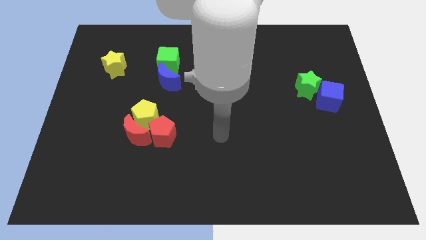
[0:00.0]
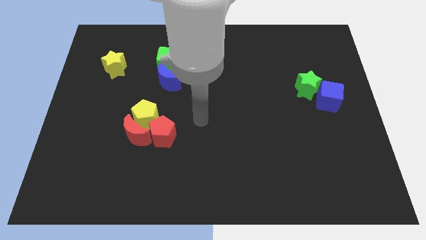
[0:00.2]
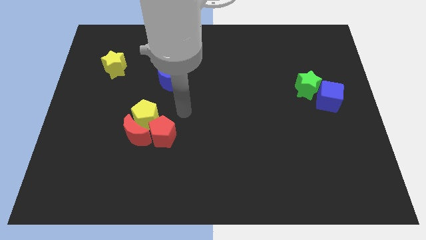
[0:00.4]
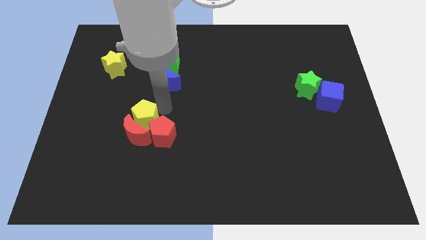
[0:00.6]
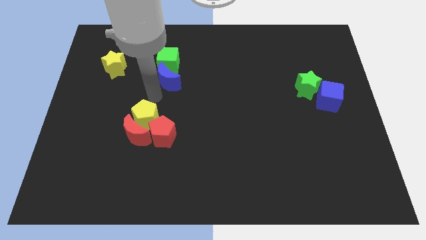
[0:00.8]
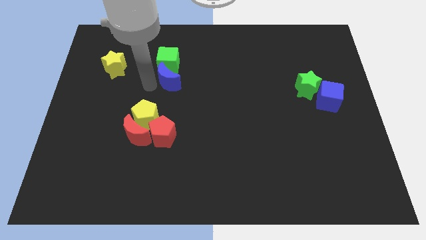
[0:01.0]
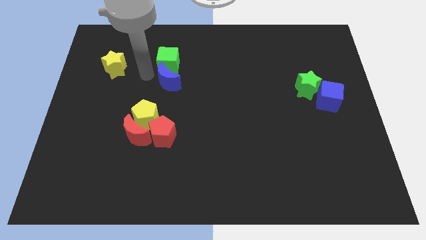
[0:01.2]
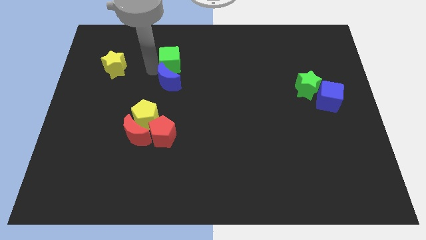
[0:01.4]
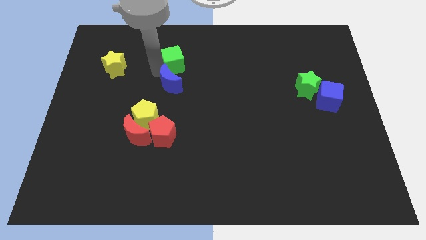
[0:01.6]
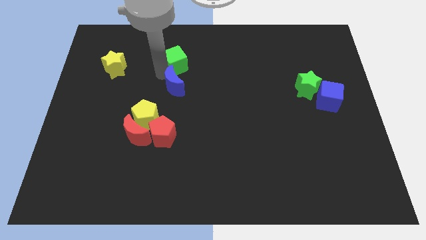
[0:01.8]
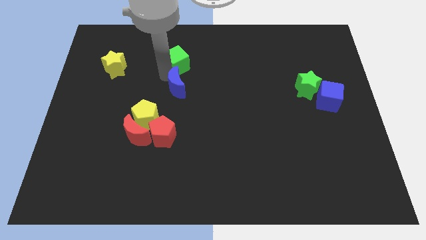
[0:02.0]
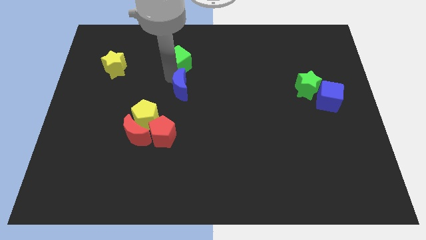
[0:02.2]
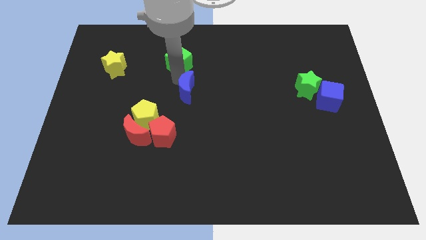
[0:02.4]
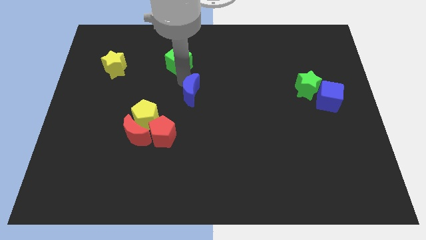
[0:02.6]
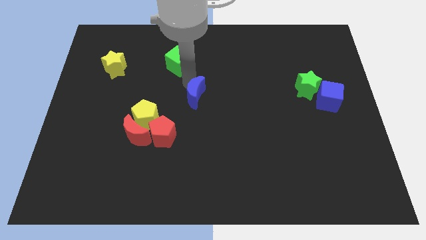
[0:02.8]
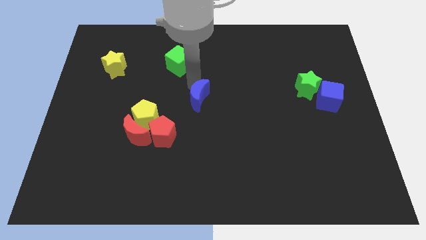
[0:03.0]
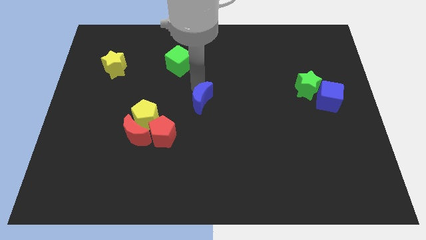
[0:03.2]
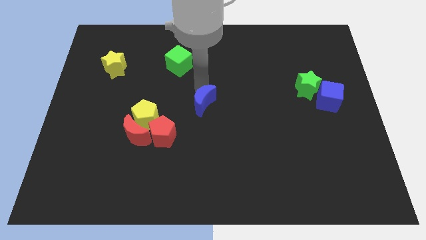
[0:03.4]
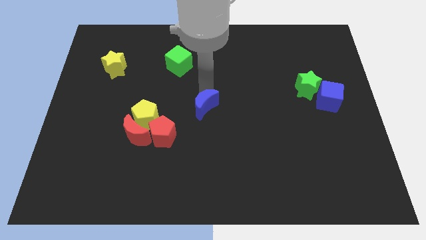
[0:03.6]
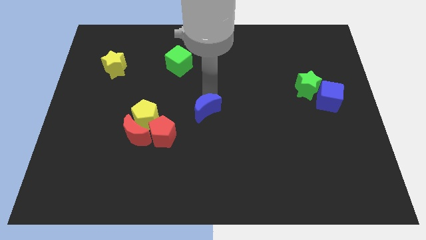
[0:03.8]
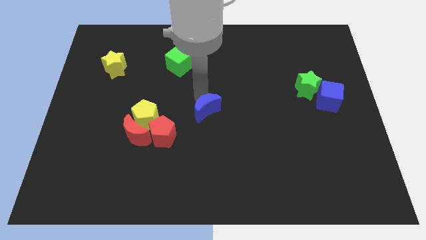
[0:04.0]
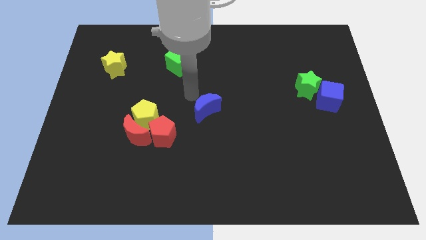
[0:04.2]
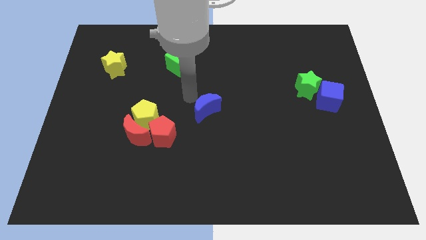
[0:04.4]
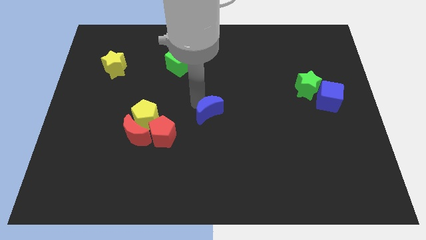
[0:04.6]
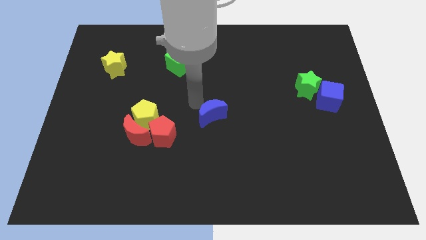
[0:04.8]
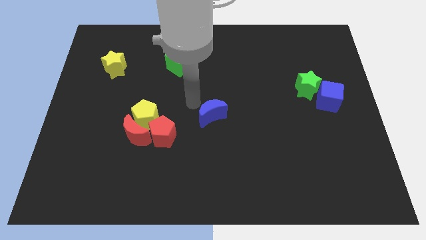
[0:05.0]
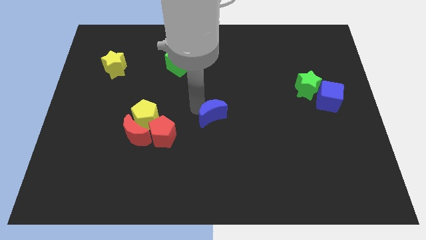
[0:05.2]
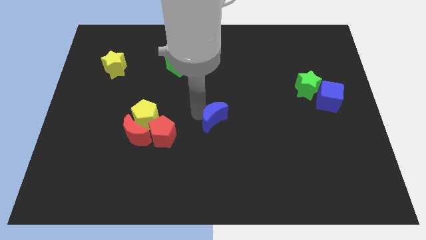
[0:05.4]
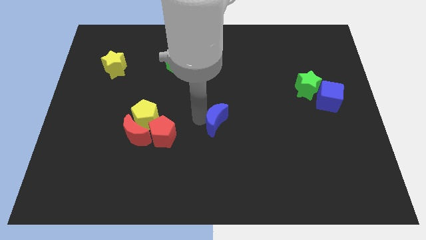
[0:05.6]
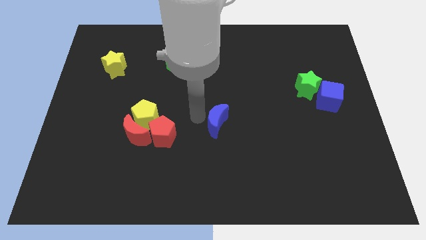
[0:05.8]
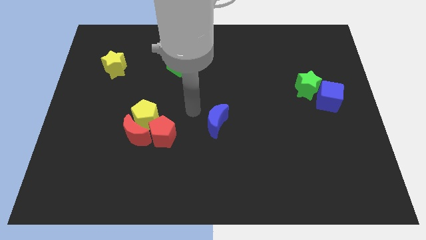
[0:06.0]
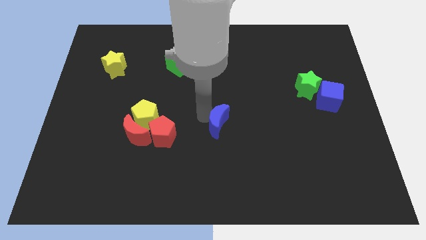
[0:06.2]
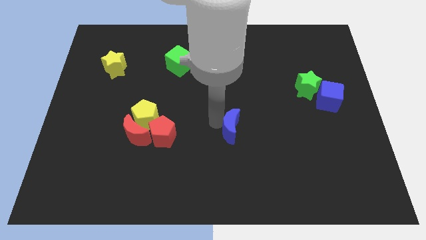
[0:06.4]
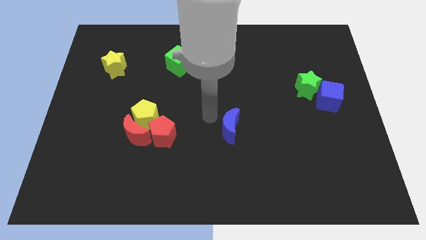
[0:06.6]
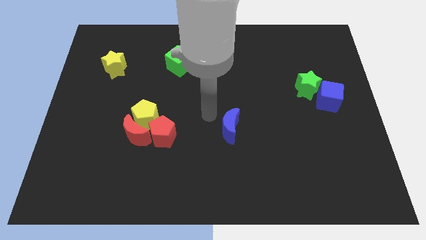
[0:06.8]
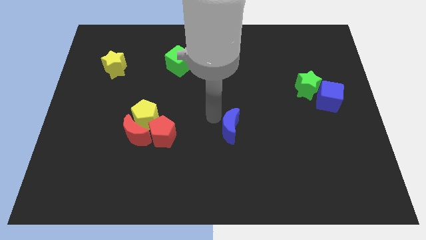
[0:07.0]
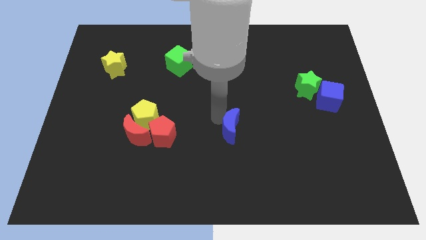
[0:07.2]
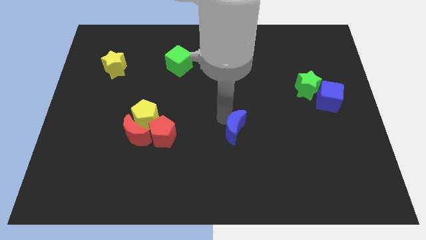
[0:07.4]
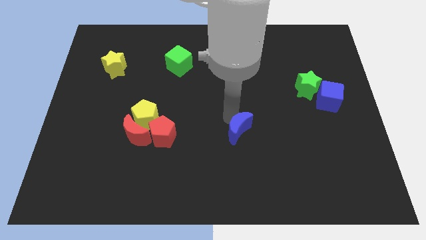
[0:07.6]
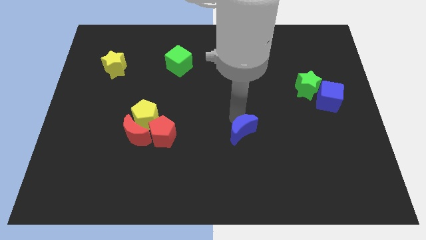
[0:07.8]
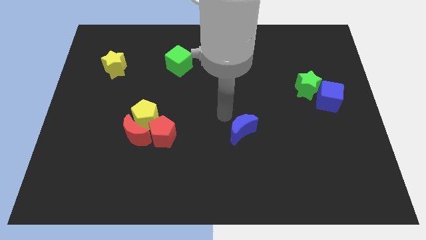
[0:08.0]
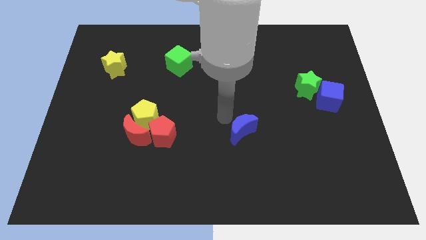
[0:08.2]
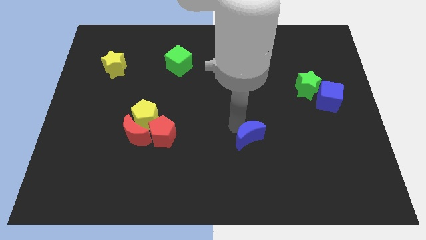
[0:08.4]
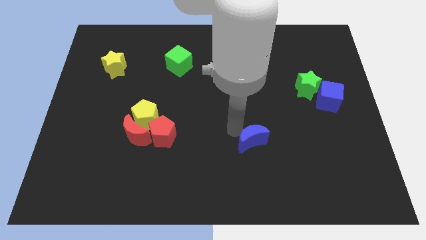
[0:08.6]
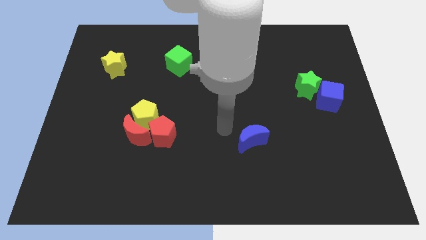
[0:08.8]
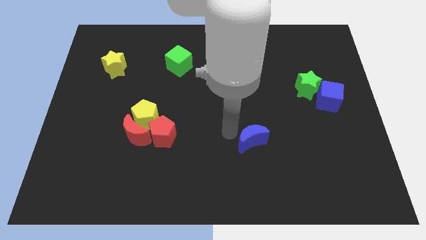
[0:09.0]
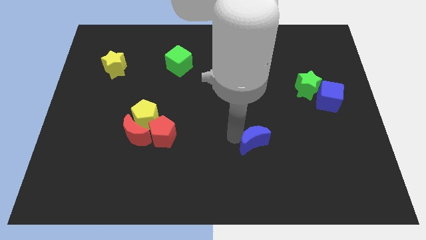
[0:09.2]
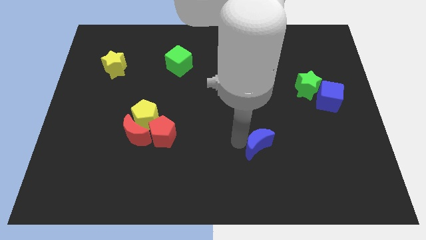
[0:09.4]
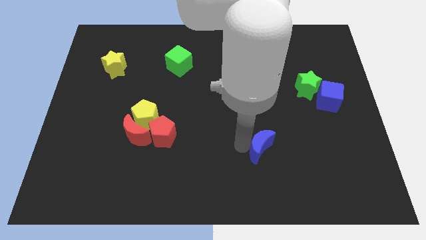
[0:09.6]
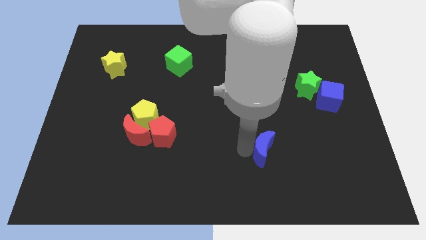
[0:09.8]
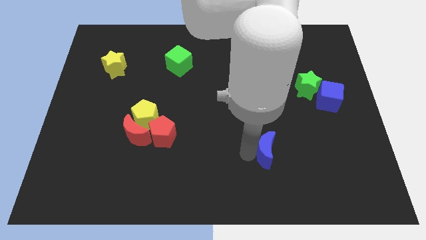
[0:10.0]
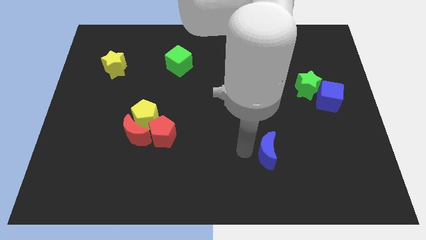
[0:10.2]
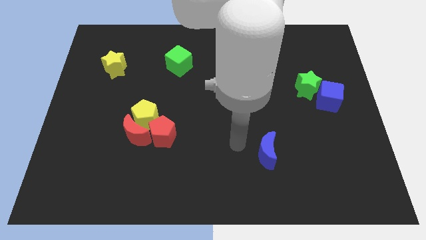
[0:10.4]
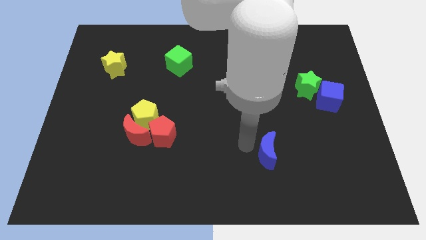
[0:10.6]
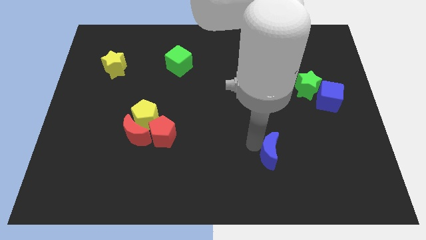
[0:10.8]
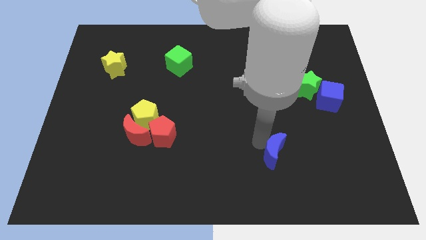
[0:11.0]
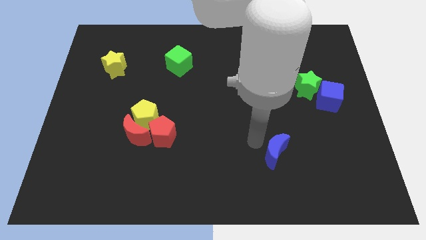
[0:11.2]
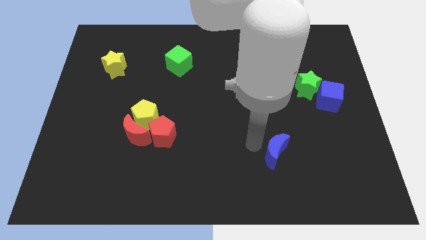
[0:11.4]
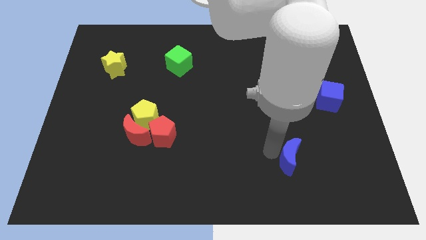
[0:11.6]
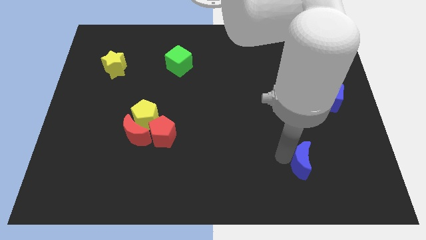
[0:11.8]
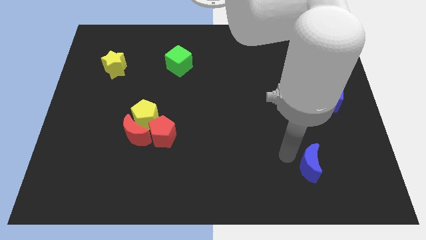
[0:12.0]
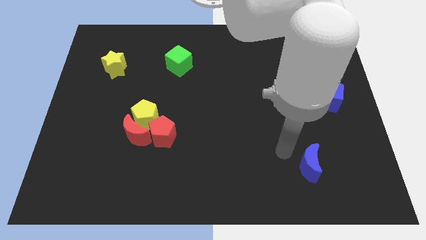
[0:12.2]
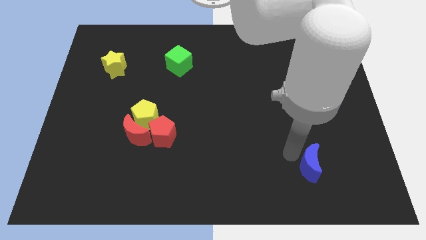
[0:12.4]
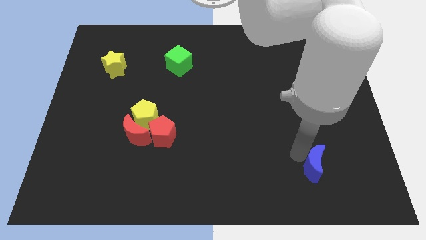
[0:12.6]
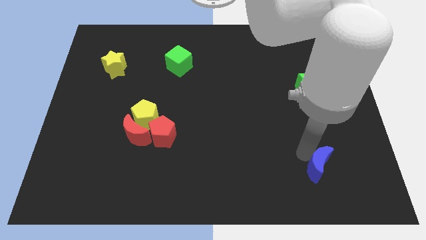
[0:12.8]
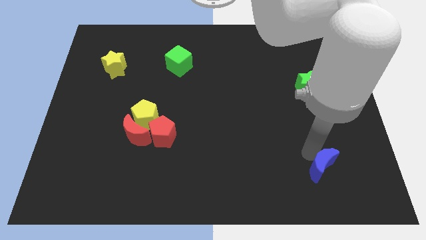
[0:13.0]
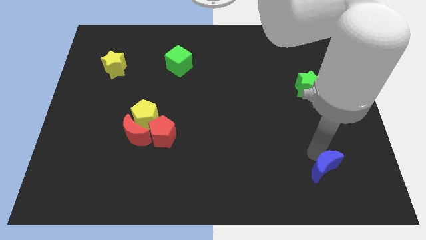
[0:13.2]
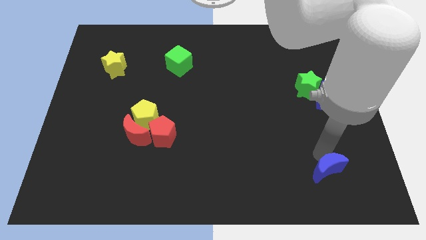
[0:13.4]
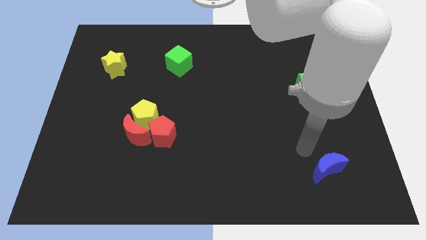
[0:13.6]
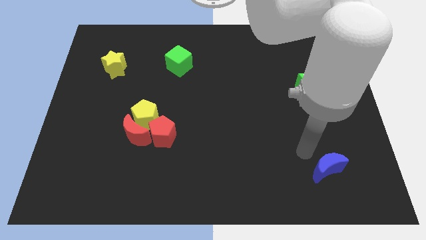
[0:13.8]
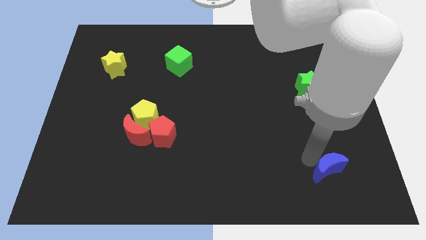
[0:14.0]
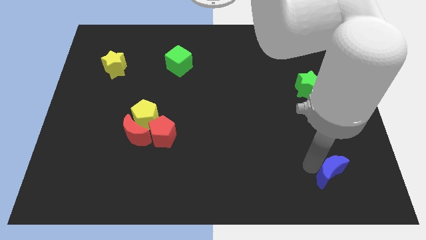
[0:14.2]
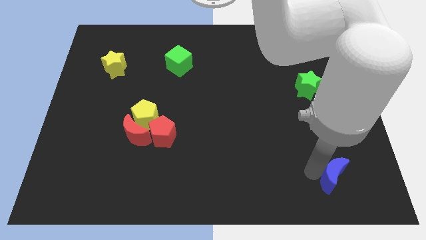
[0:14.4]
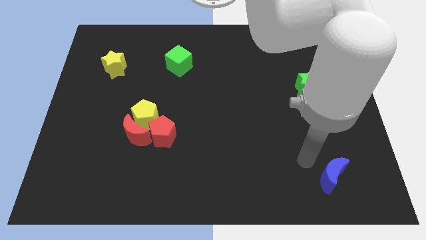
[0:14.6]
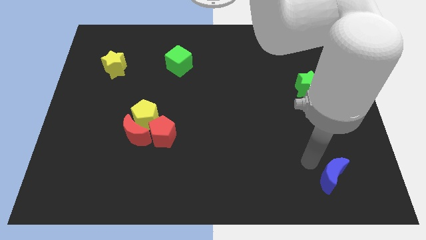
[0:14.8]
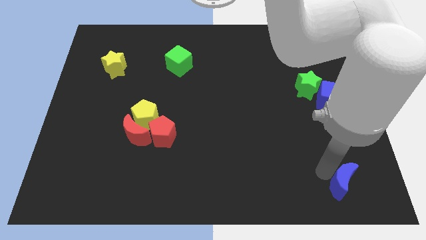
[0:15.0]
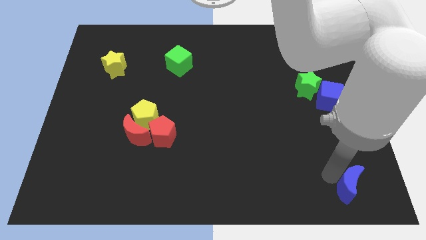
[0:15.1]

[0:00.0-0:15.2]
move the blue moon to the bottom right corner
